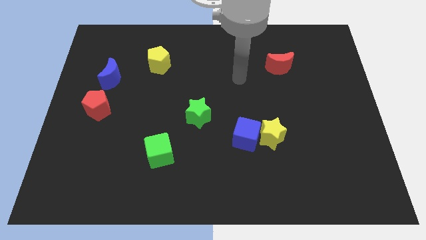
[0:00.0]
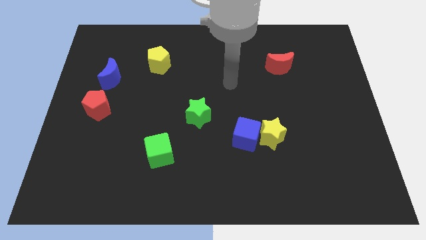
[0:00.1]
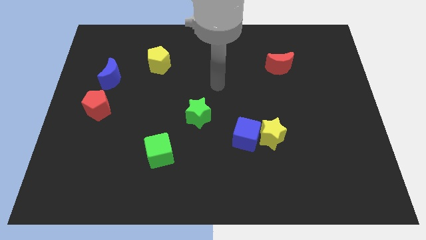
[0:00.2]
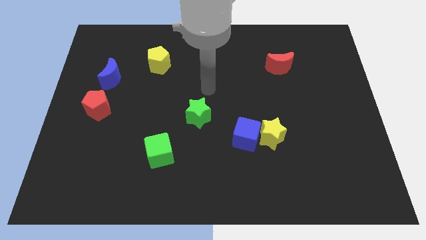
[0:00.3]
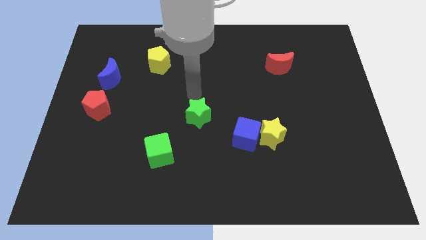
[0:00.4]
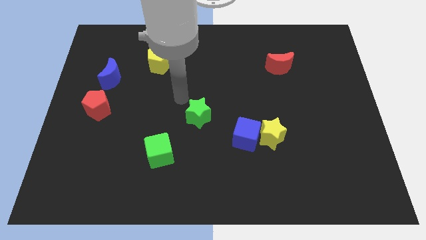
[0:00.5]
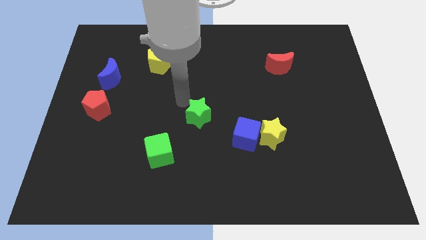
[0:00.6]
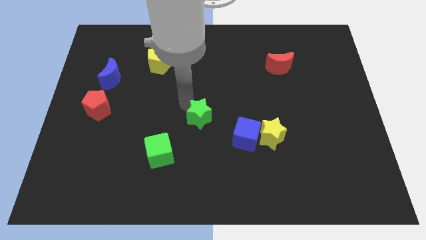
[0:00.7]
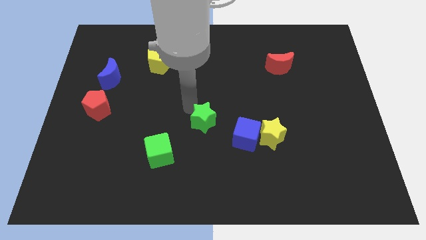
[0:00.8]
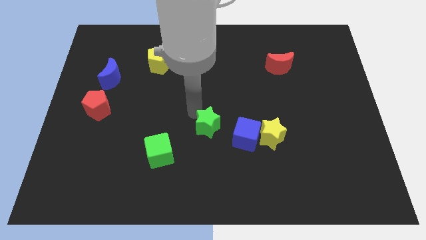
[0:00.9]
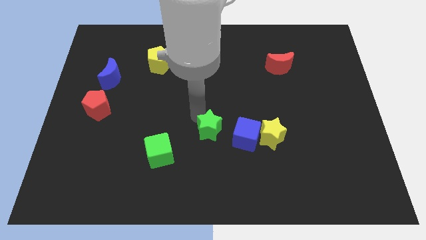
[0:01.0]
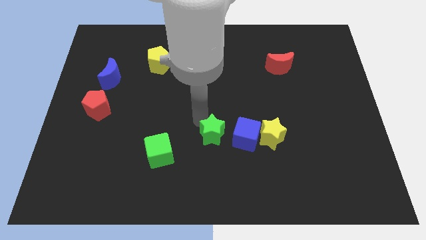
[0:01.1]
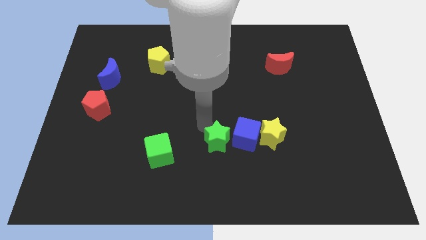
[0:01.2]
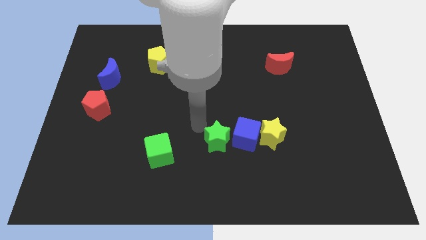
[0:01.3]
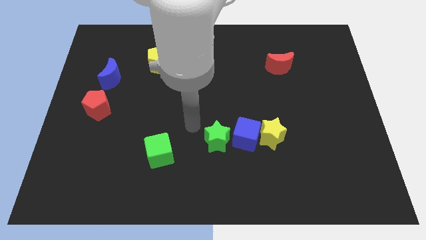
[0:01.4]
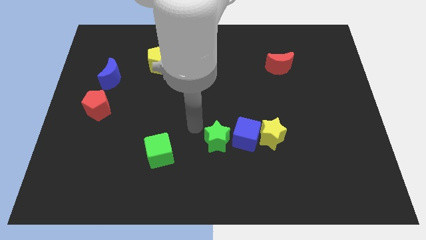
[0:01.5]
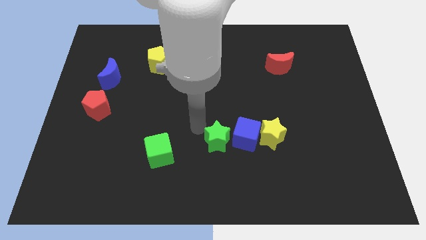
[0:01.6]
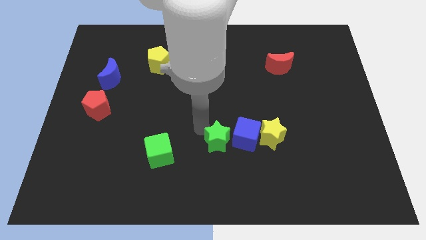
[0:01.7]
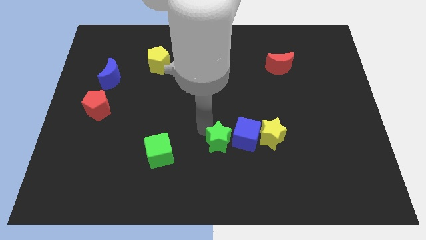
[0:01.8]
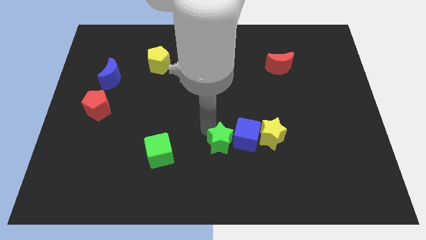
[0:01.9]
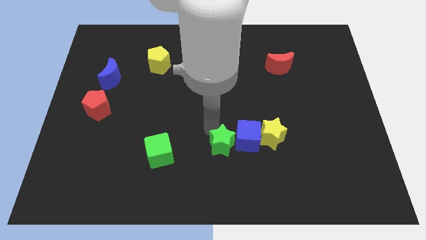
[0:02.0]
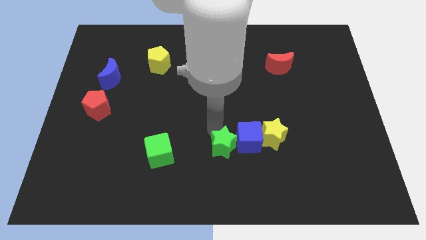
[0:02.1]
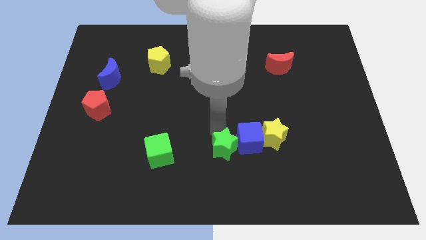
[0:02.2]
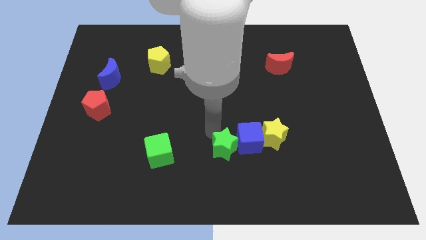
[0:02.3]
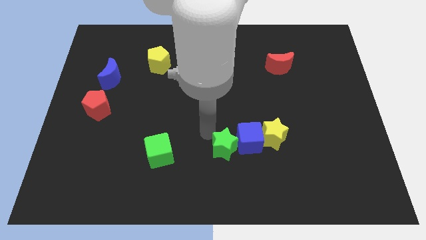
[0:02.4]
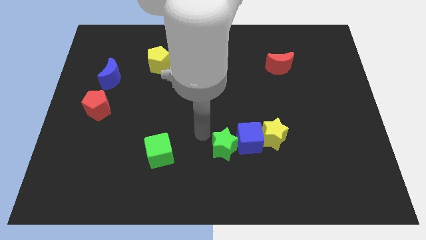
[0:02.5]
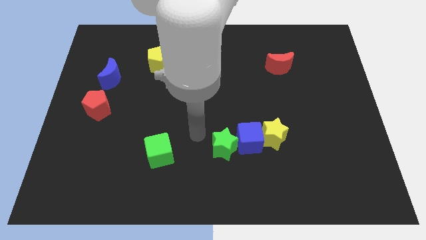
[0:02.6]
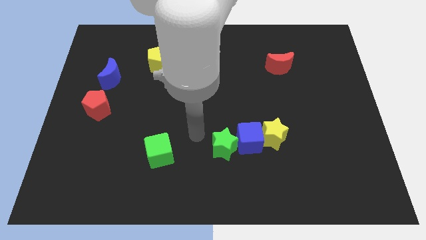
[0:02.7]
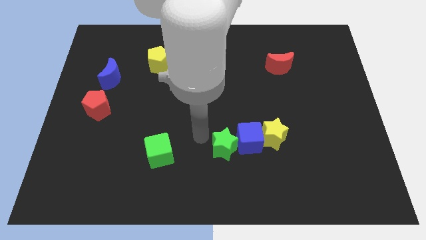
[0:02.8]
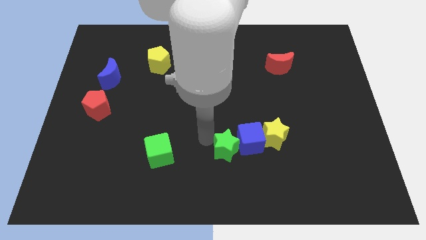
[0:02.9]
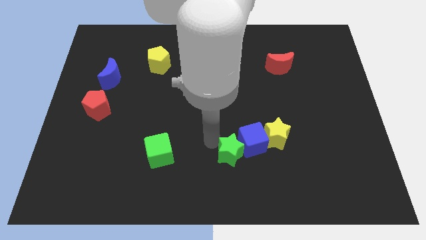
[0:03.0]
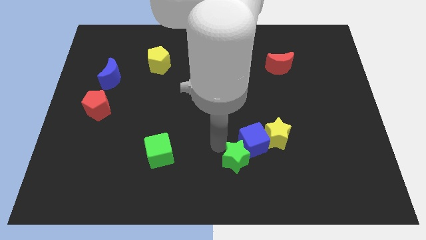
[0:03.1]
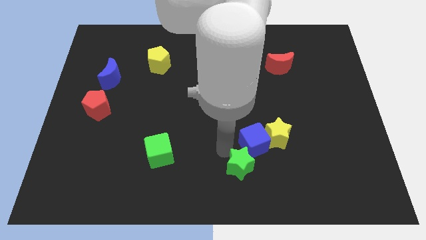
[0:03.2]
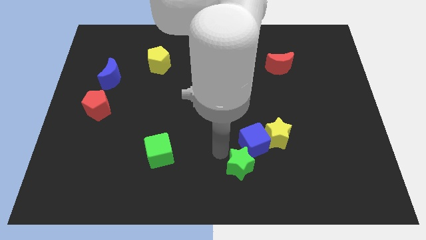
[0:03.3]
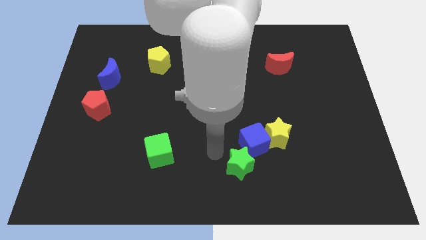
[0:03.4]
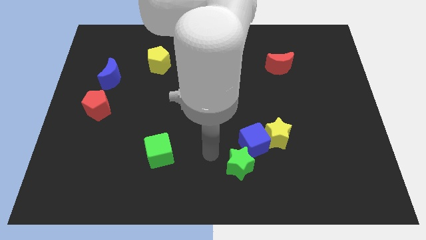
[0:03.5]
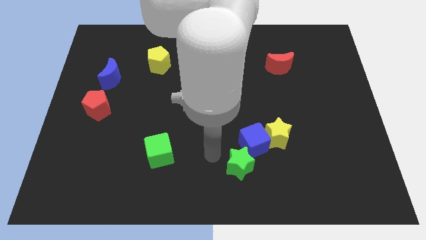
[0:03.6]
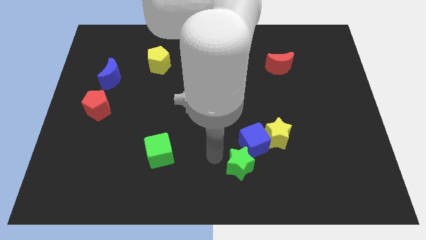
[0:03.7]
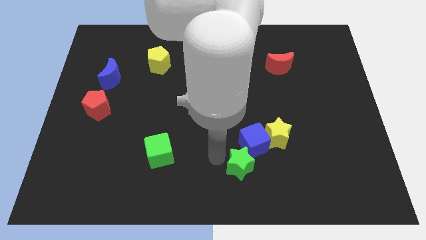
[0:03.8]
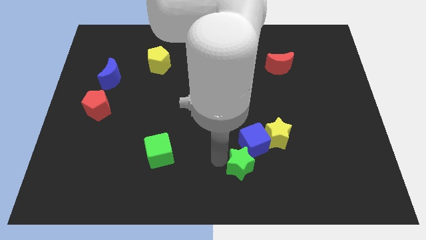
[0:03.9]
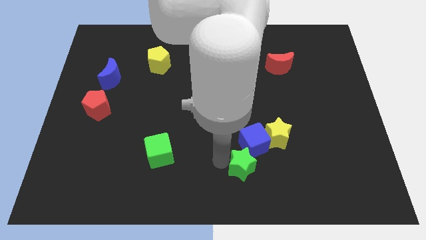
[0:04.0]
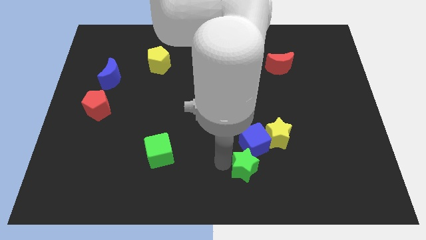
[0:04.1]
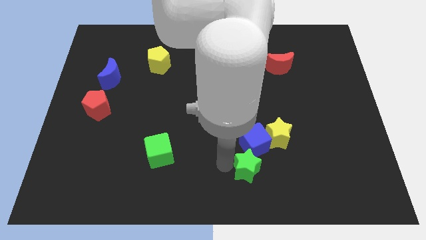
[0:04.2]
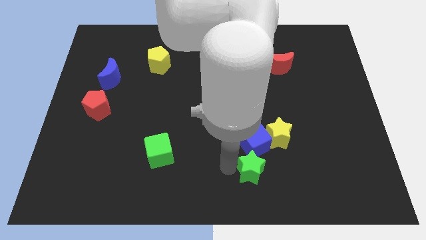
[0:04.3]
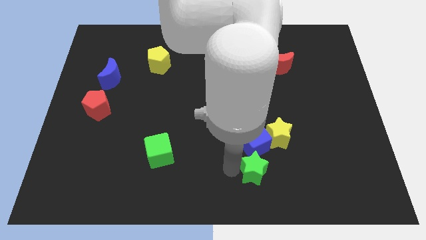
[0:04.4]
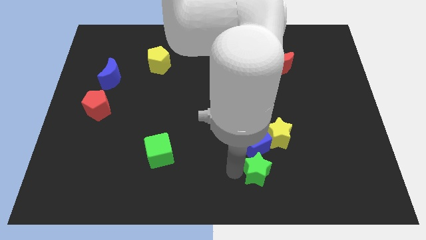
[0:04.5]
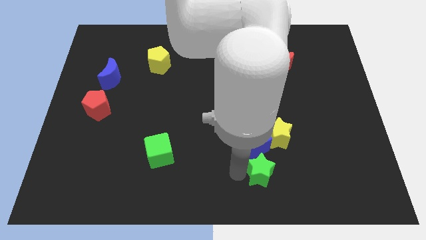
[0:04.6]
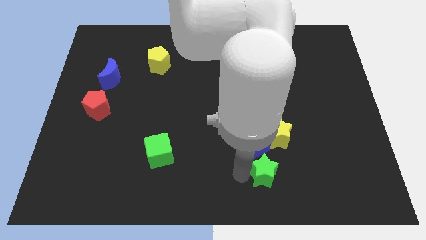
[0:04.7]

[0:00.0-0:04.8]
push the green star to the bottom of the yellow star

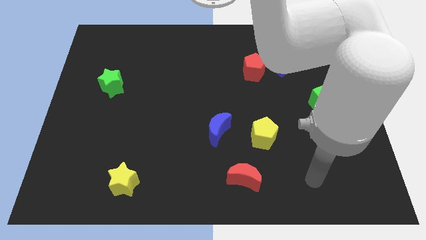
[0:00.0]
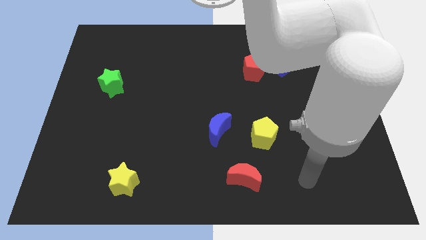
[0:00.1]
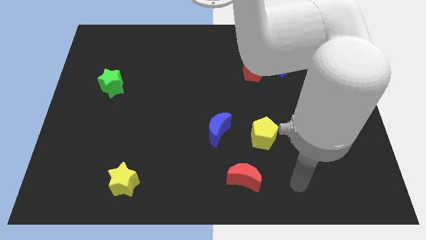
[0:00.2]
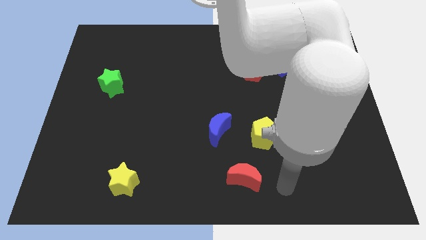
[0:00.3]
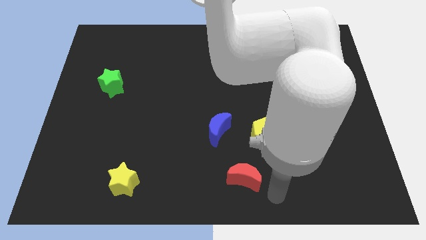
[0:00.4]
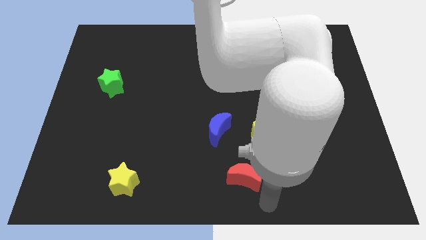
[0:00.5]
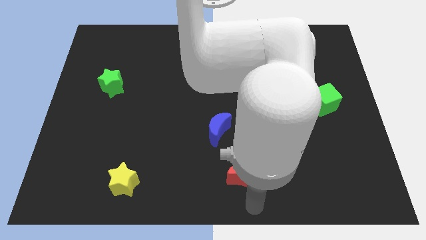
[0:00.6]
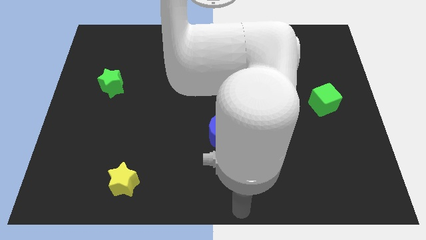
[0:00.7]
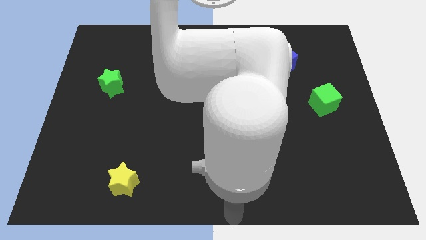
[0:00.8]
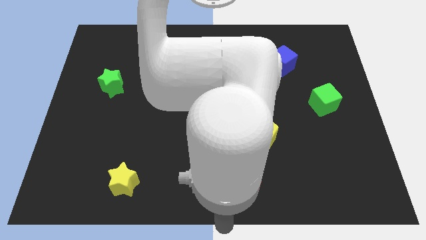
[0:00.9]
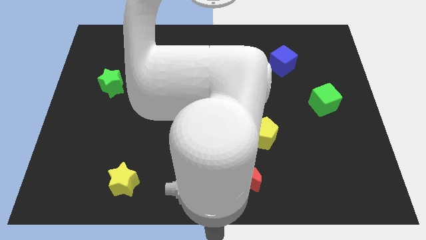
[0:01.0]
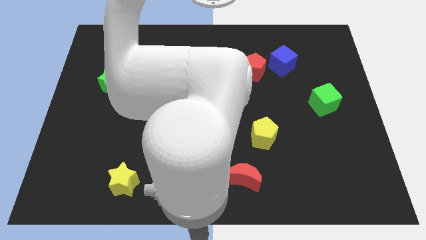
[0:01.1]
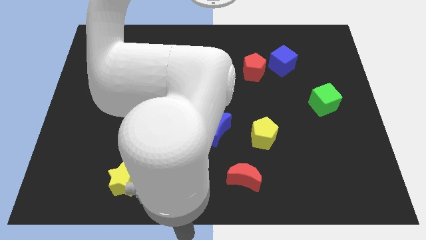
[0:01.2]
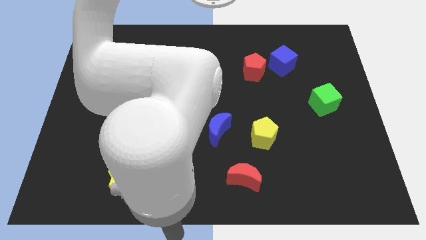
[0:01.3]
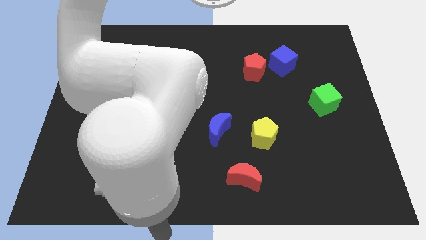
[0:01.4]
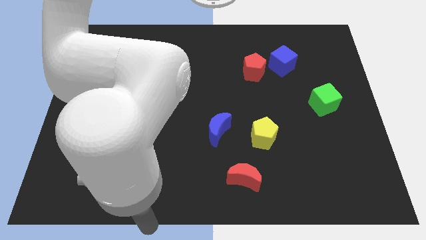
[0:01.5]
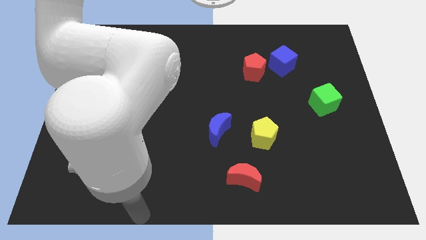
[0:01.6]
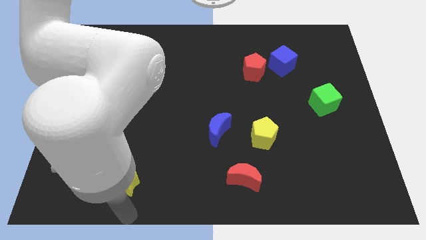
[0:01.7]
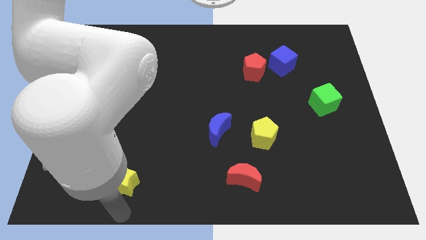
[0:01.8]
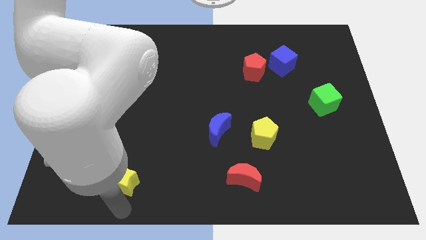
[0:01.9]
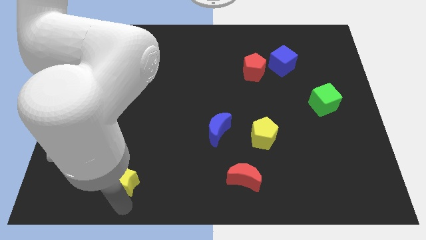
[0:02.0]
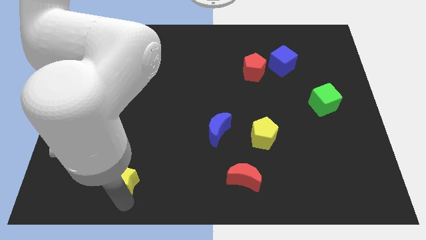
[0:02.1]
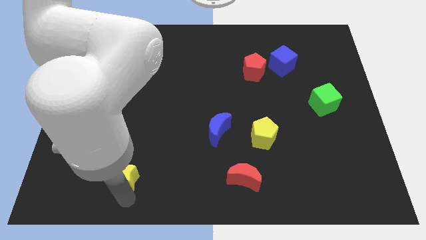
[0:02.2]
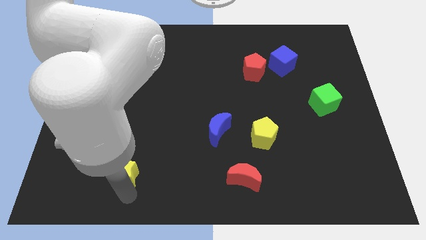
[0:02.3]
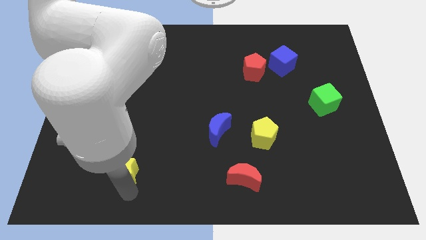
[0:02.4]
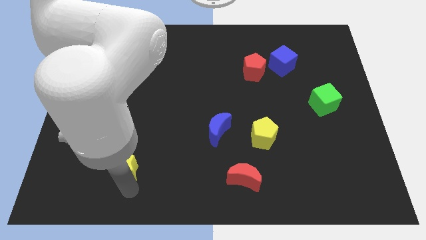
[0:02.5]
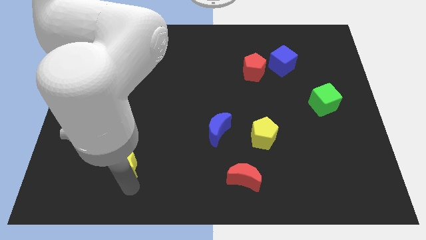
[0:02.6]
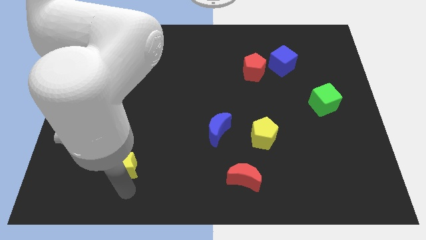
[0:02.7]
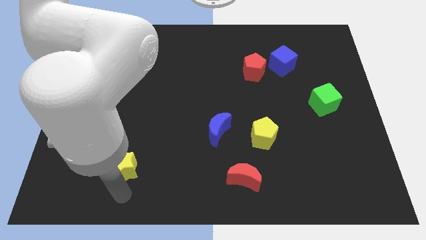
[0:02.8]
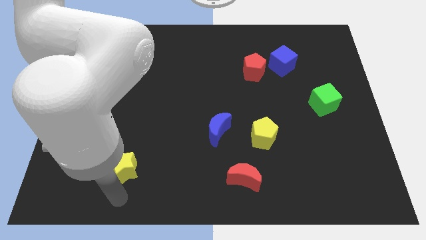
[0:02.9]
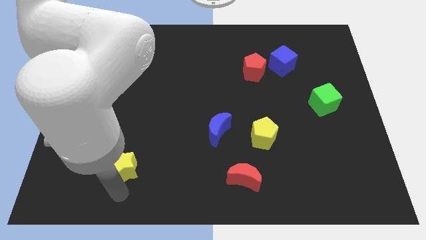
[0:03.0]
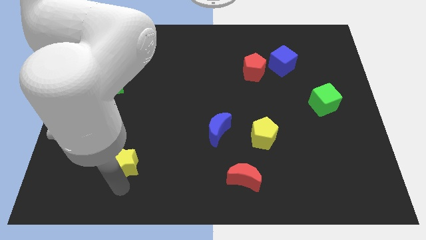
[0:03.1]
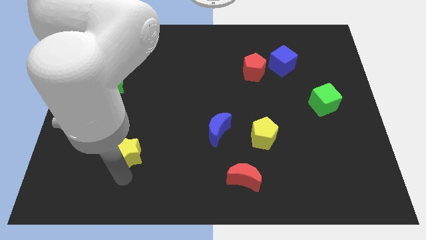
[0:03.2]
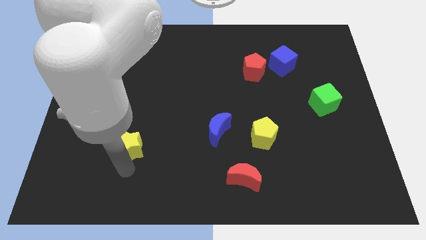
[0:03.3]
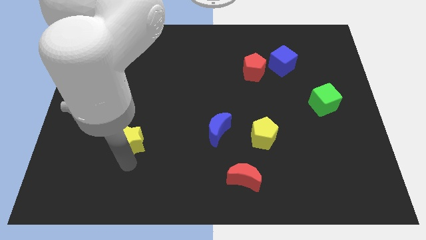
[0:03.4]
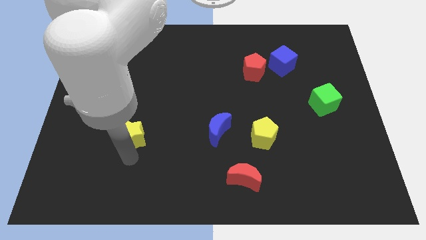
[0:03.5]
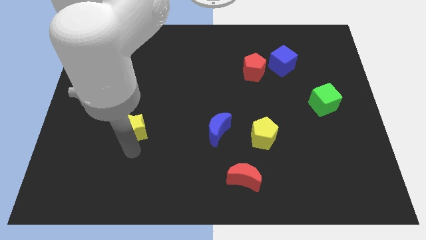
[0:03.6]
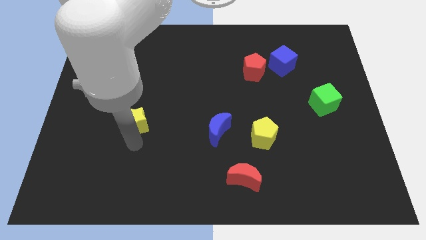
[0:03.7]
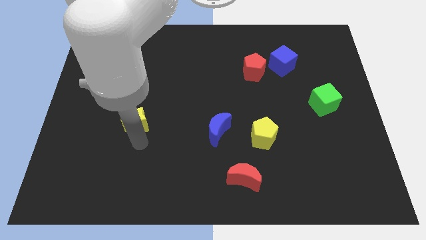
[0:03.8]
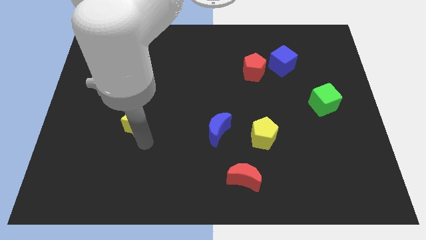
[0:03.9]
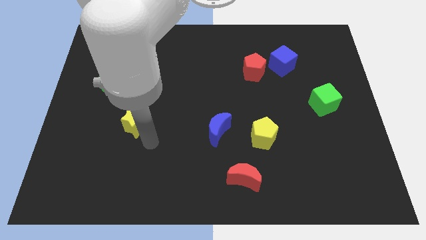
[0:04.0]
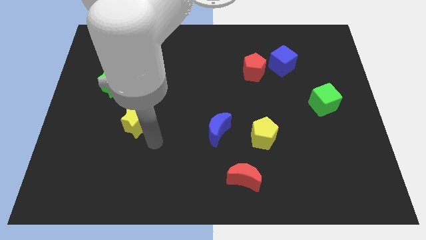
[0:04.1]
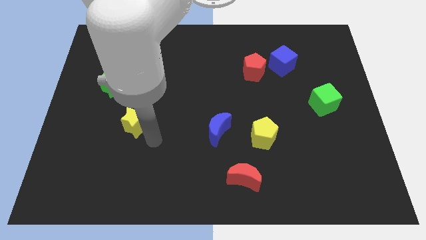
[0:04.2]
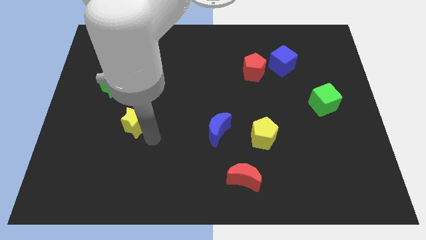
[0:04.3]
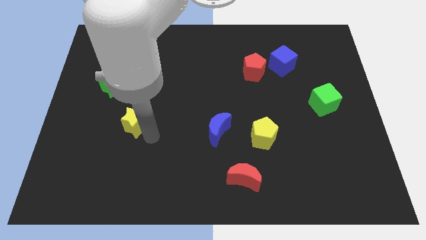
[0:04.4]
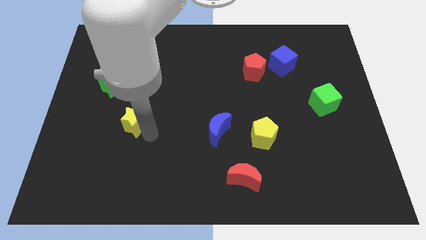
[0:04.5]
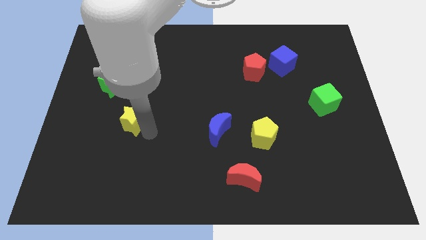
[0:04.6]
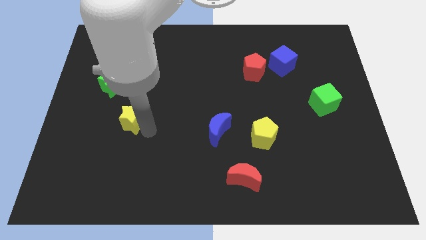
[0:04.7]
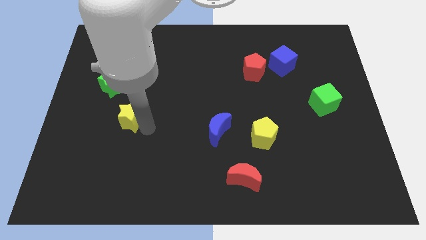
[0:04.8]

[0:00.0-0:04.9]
push the yellow star to the bottom right side of the green star
